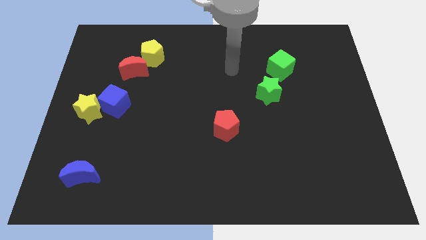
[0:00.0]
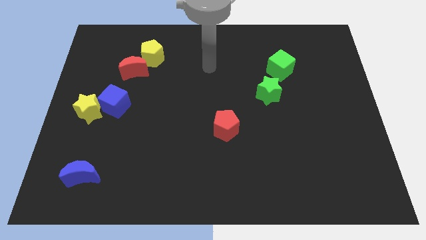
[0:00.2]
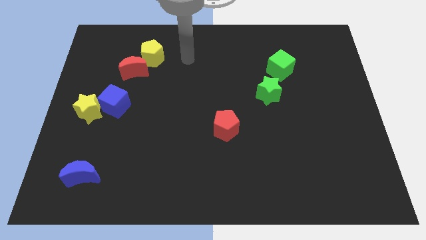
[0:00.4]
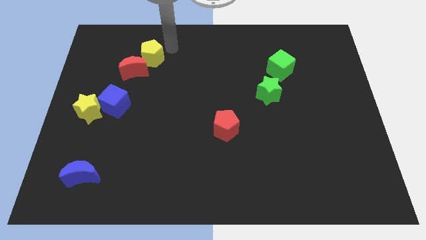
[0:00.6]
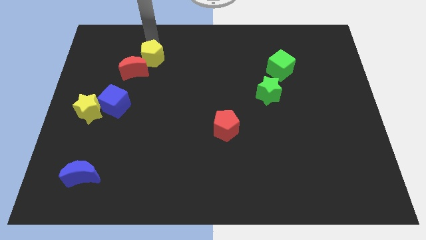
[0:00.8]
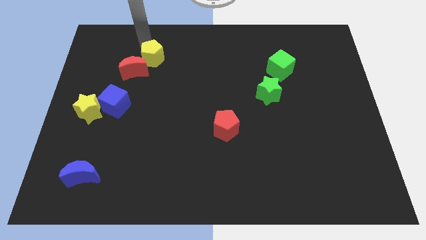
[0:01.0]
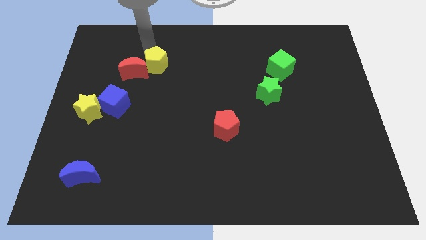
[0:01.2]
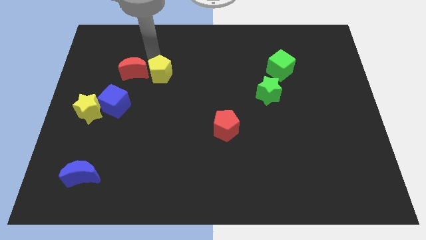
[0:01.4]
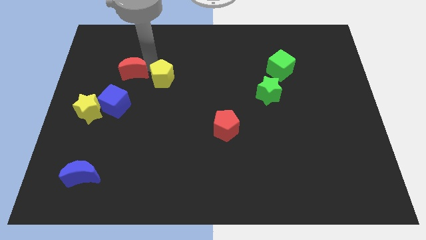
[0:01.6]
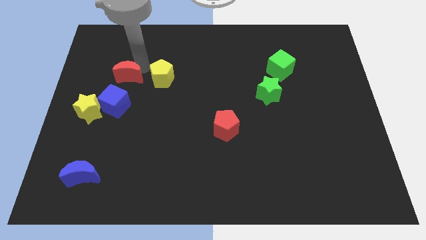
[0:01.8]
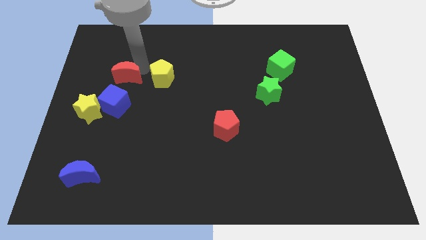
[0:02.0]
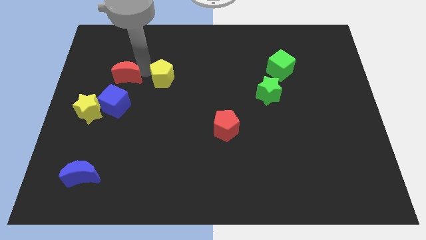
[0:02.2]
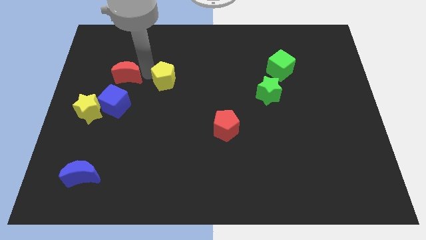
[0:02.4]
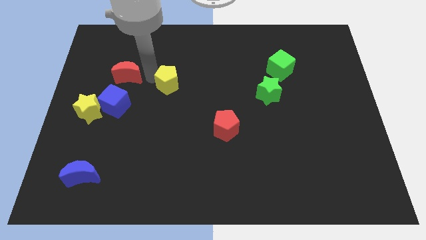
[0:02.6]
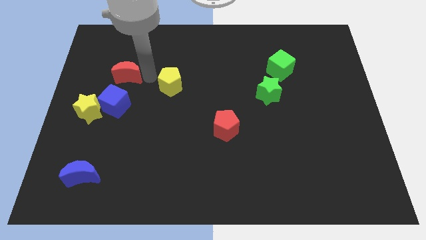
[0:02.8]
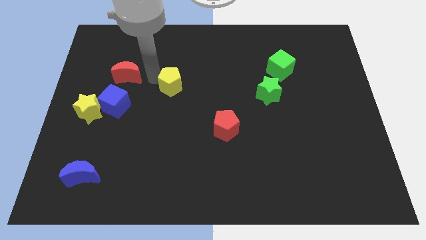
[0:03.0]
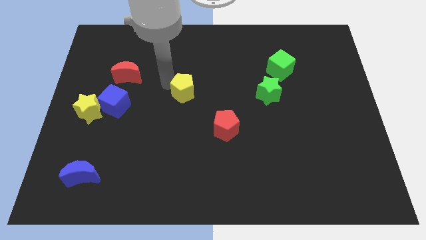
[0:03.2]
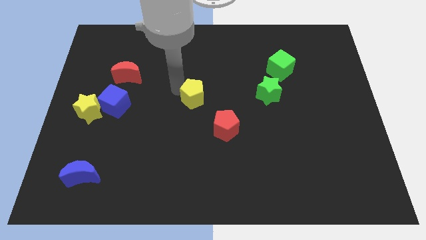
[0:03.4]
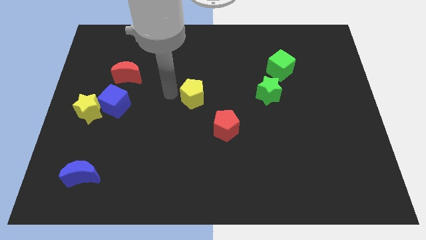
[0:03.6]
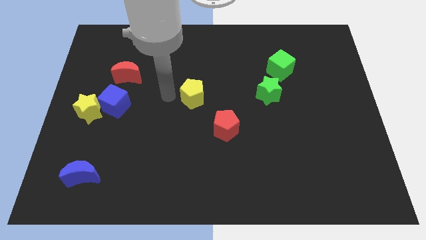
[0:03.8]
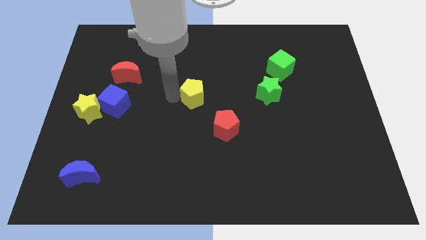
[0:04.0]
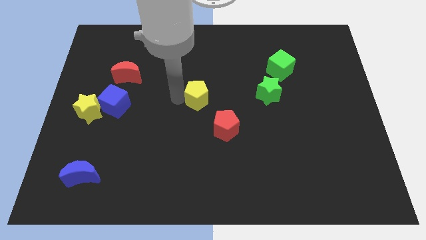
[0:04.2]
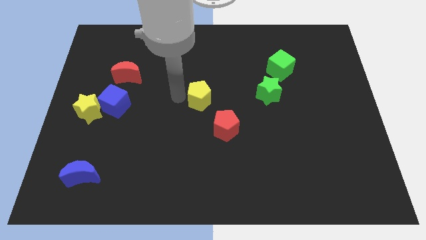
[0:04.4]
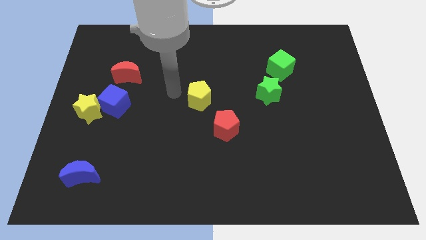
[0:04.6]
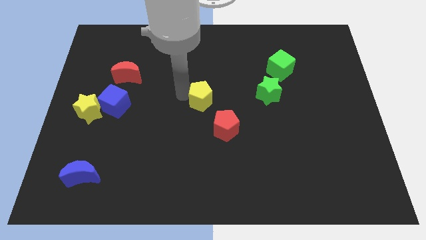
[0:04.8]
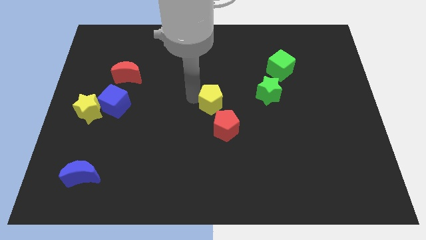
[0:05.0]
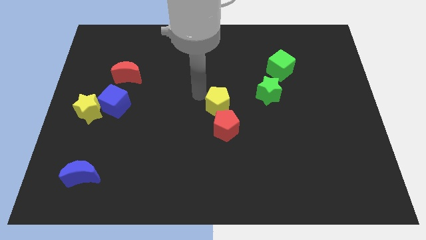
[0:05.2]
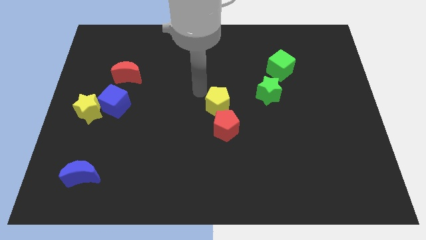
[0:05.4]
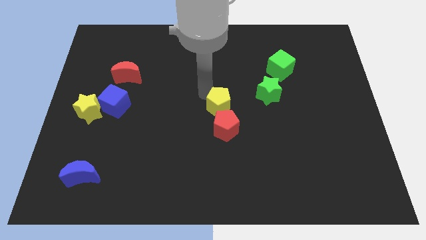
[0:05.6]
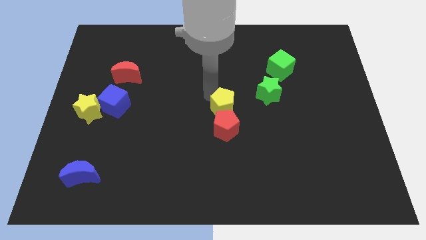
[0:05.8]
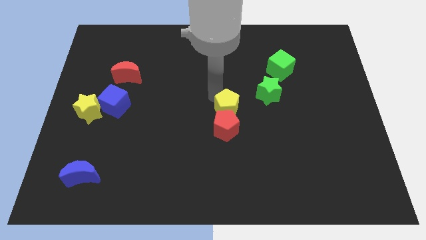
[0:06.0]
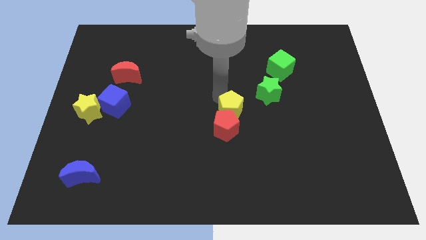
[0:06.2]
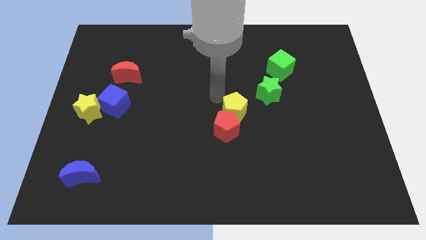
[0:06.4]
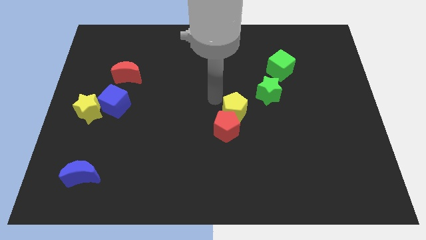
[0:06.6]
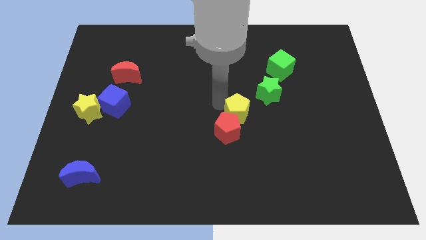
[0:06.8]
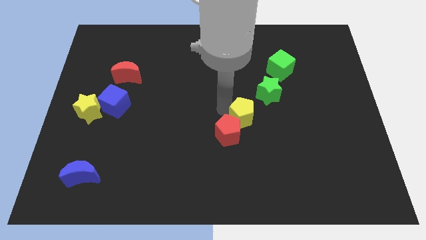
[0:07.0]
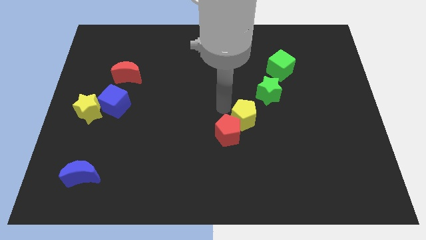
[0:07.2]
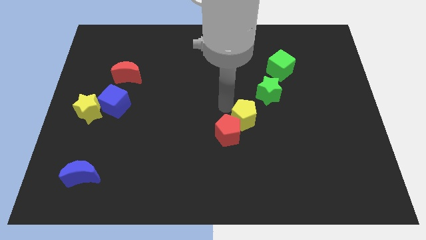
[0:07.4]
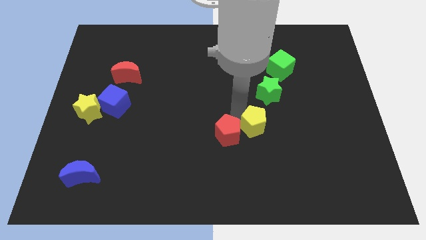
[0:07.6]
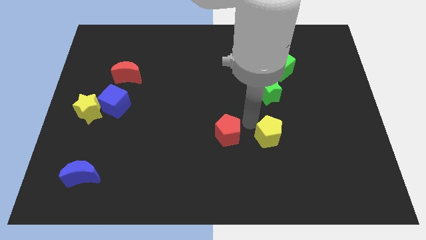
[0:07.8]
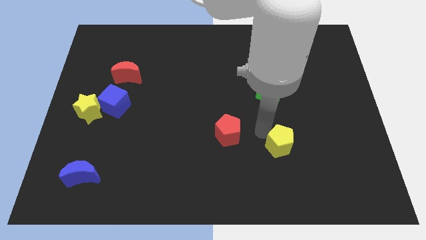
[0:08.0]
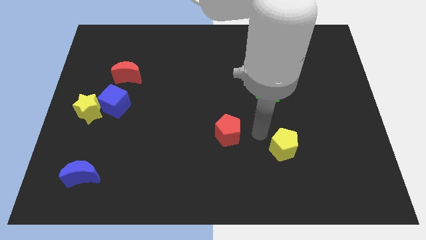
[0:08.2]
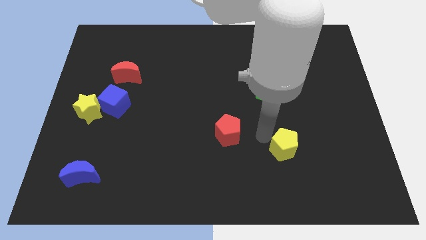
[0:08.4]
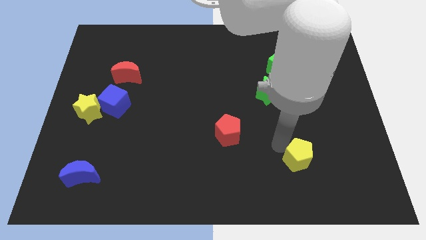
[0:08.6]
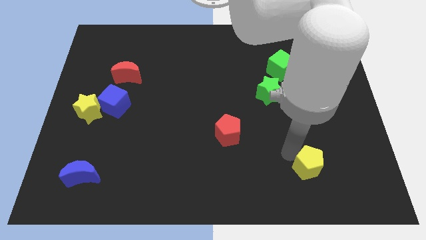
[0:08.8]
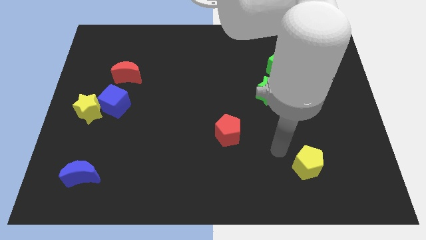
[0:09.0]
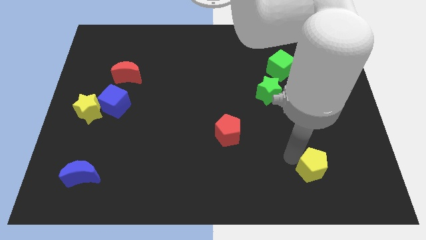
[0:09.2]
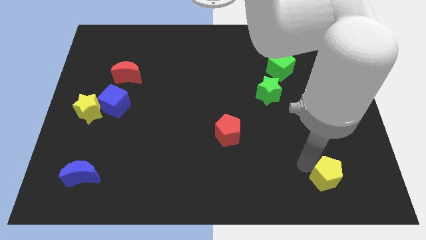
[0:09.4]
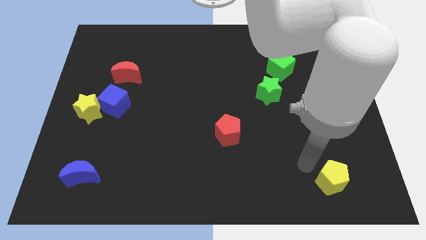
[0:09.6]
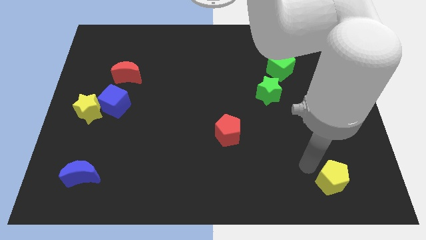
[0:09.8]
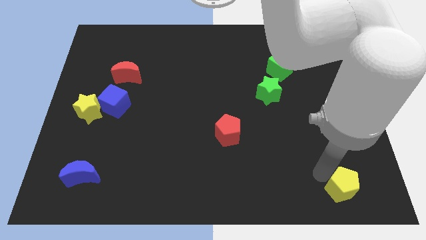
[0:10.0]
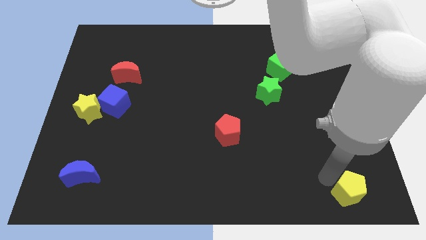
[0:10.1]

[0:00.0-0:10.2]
put the yellow pentagon to the lower right corner

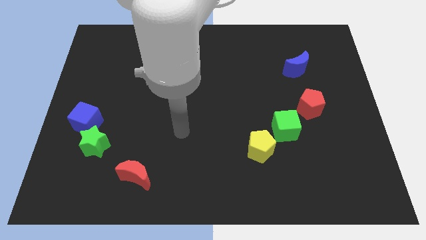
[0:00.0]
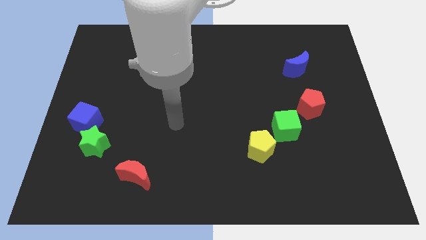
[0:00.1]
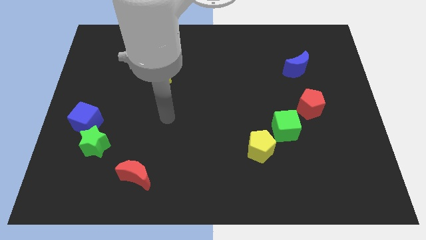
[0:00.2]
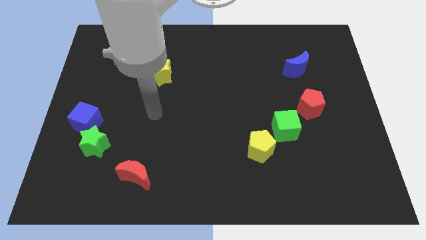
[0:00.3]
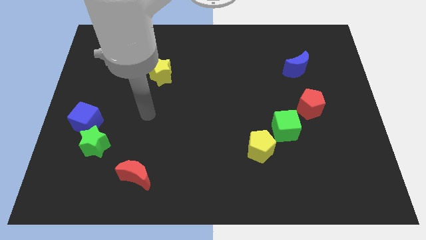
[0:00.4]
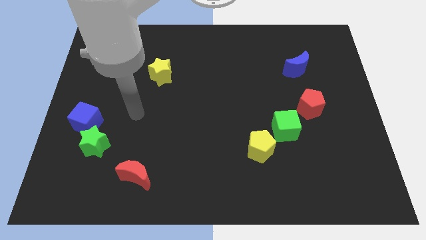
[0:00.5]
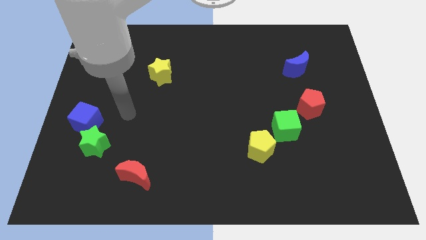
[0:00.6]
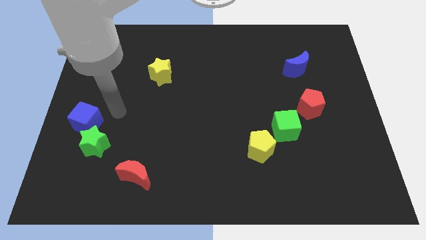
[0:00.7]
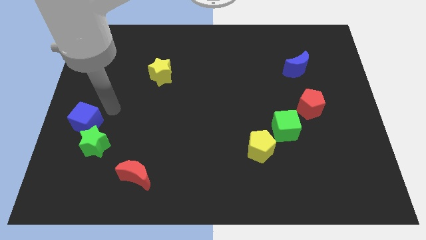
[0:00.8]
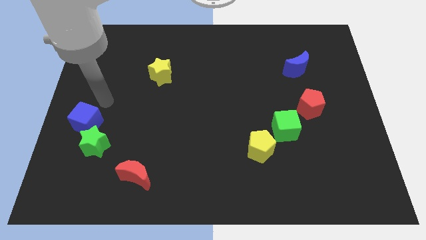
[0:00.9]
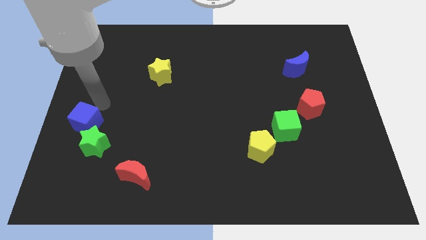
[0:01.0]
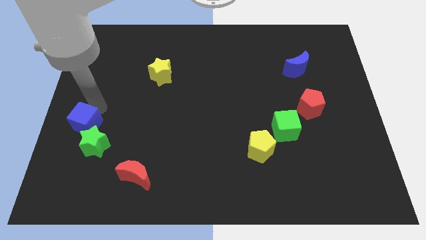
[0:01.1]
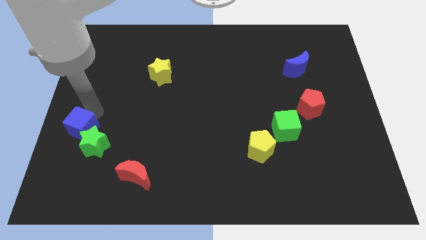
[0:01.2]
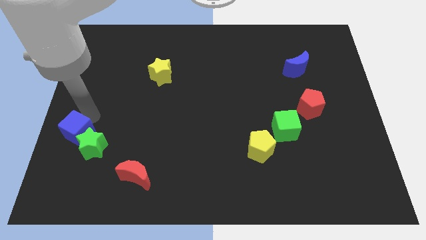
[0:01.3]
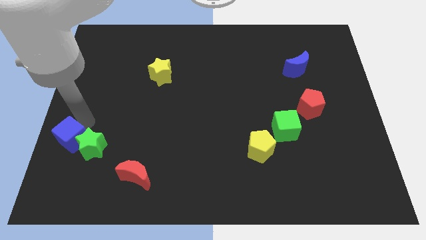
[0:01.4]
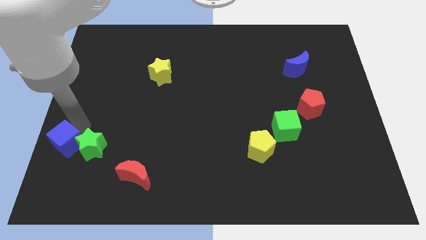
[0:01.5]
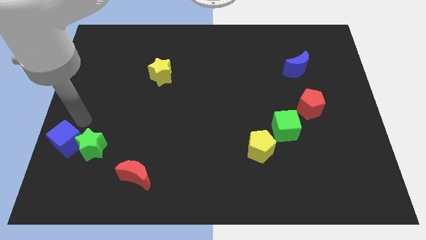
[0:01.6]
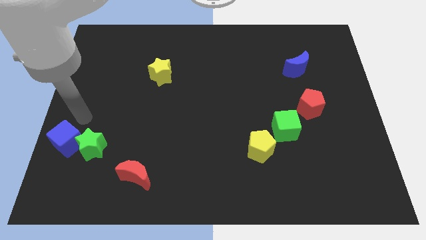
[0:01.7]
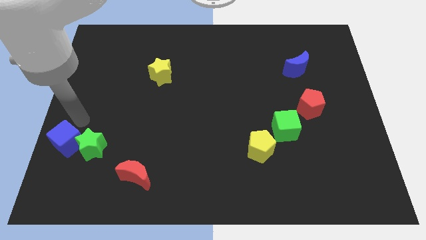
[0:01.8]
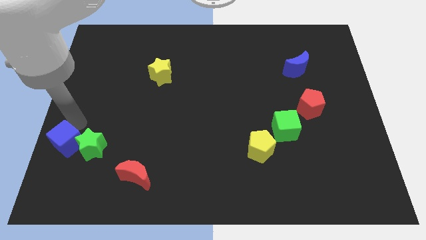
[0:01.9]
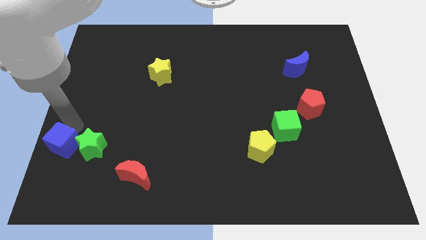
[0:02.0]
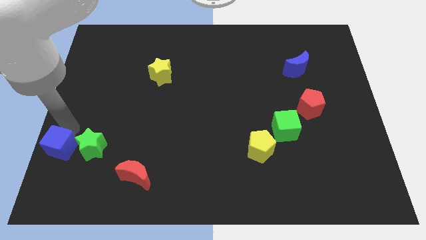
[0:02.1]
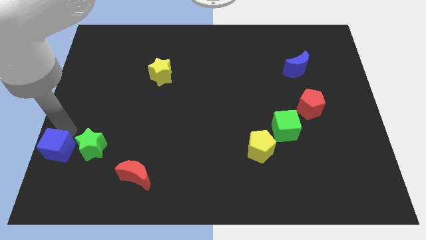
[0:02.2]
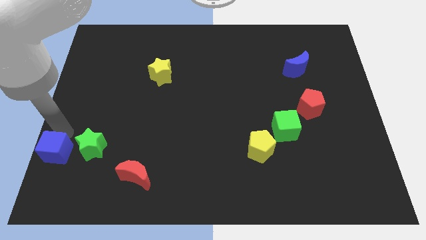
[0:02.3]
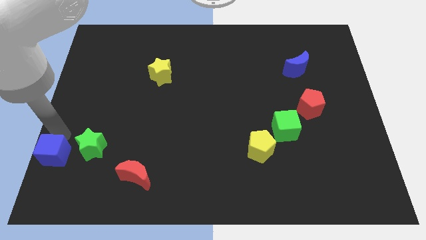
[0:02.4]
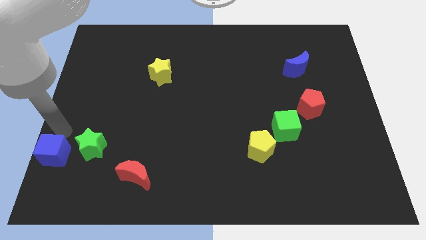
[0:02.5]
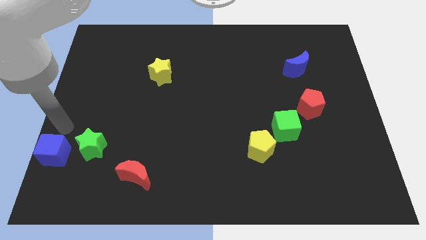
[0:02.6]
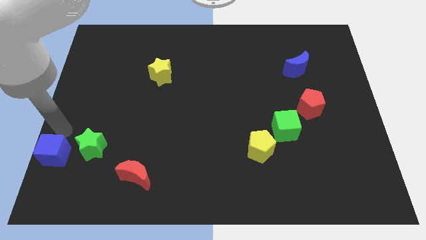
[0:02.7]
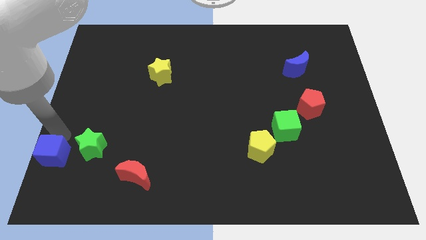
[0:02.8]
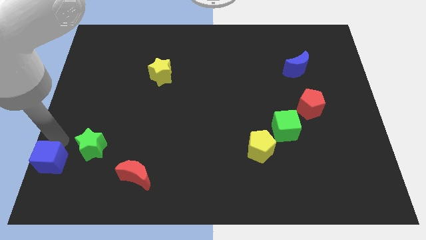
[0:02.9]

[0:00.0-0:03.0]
push the blue cube to the bottom left corner

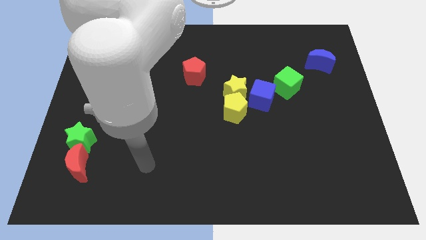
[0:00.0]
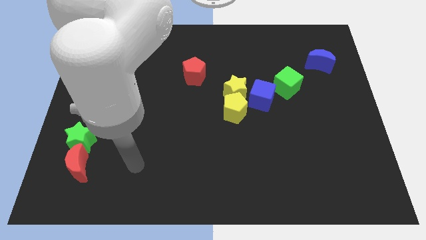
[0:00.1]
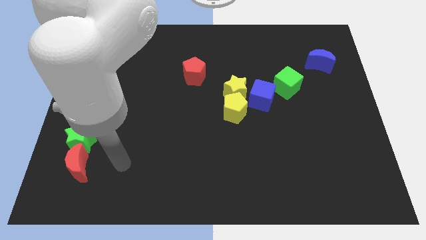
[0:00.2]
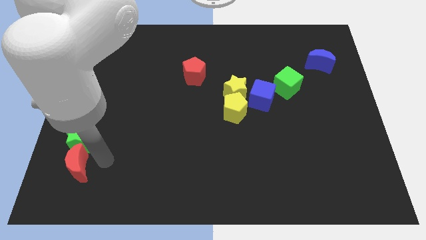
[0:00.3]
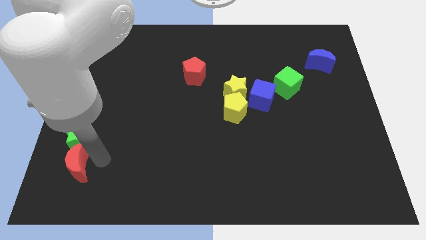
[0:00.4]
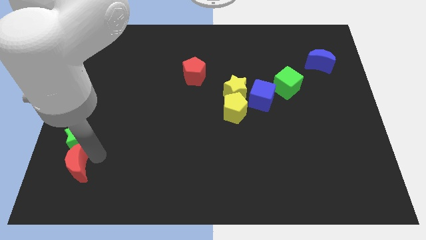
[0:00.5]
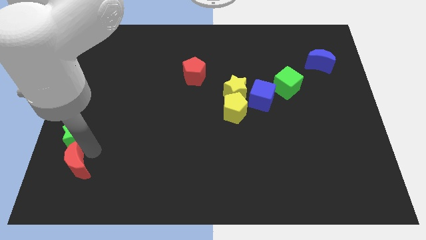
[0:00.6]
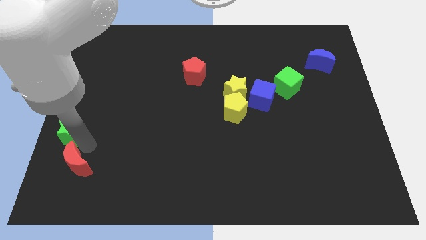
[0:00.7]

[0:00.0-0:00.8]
push the green star to the left side of the board
